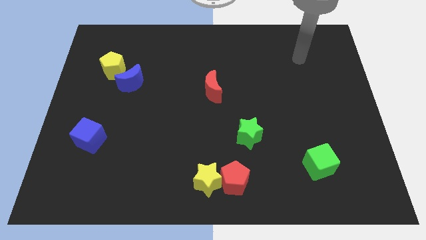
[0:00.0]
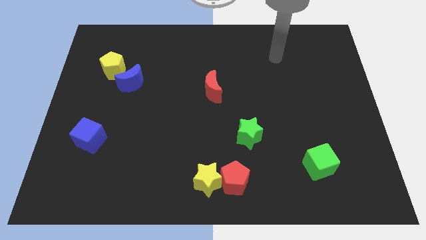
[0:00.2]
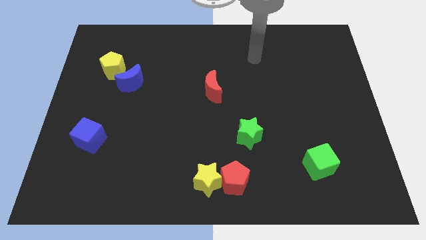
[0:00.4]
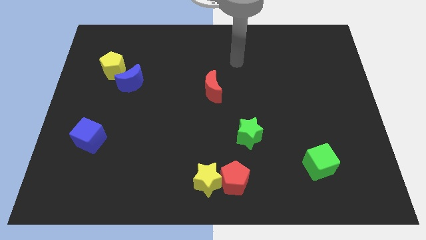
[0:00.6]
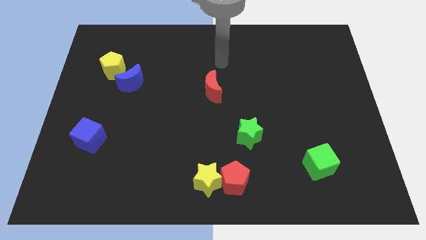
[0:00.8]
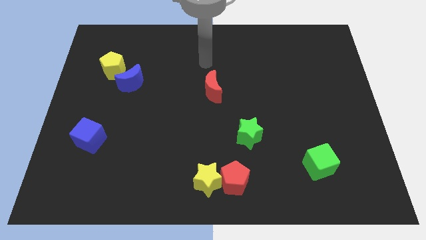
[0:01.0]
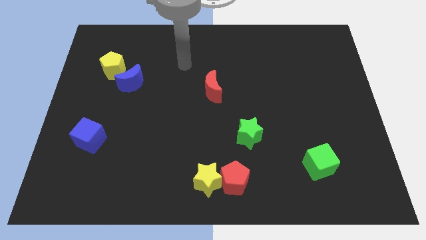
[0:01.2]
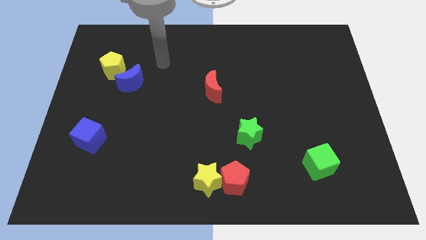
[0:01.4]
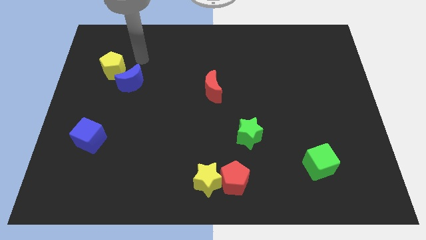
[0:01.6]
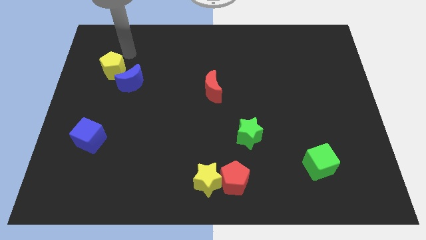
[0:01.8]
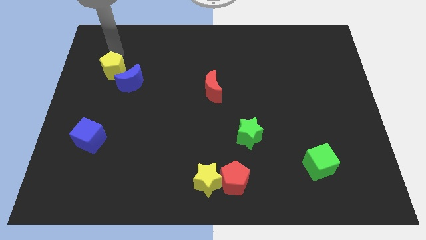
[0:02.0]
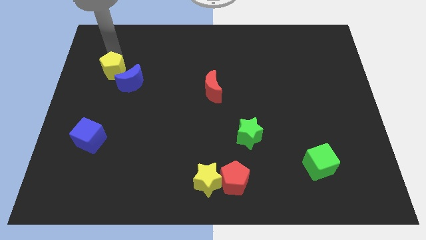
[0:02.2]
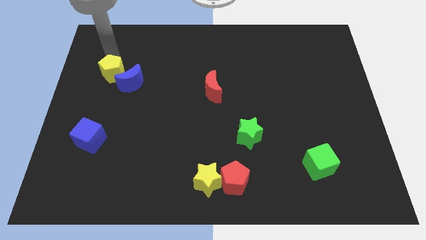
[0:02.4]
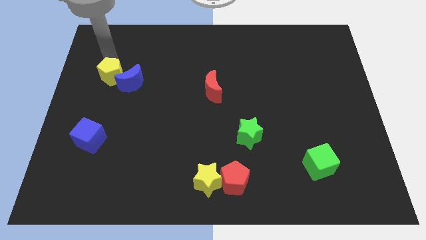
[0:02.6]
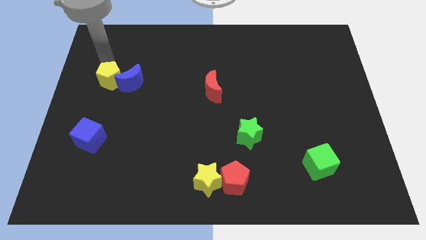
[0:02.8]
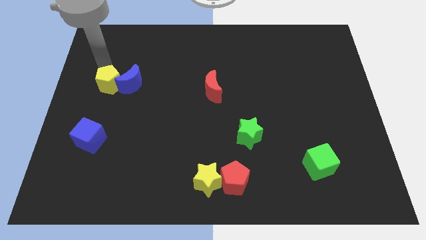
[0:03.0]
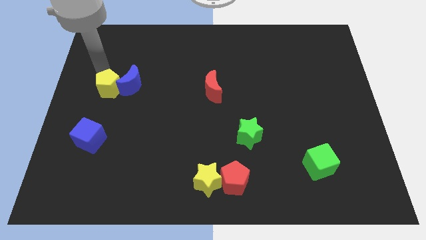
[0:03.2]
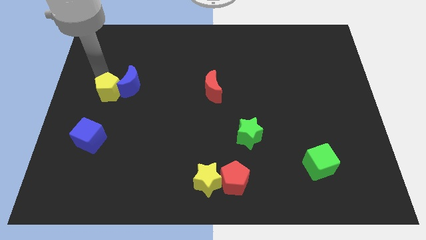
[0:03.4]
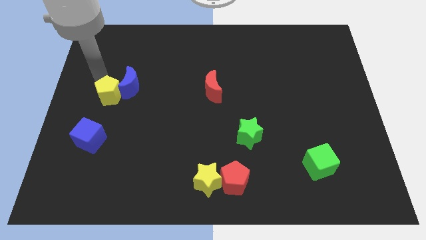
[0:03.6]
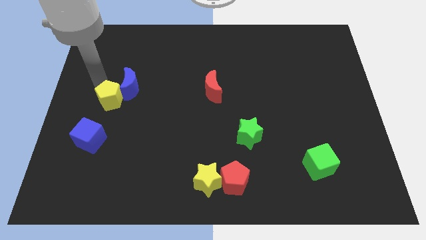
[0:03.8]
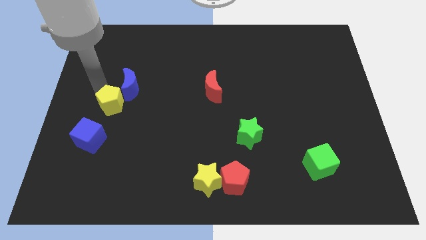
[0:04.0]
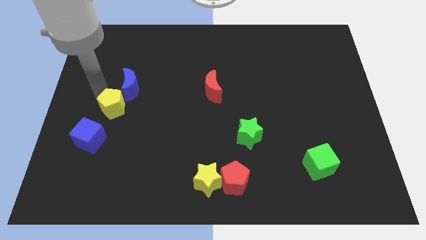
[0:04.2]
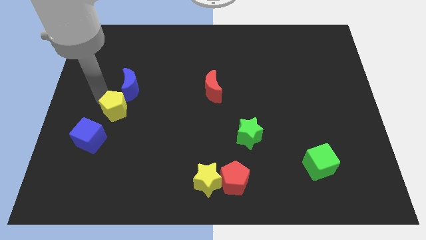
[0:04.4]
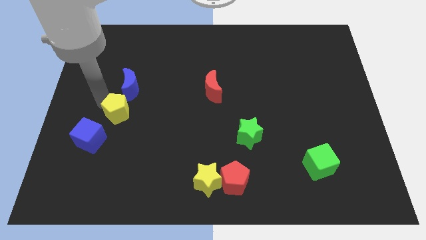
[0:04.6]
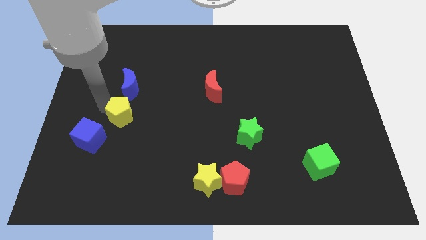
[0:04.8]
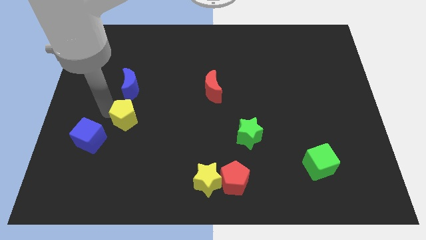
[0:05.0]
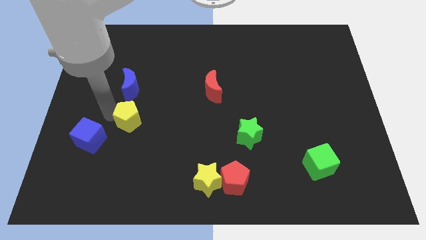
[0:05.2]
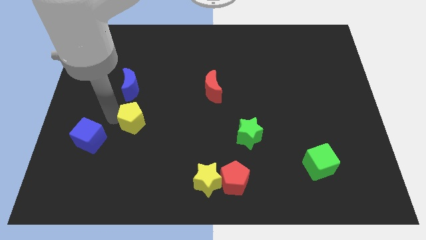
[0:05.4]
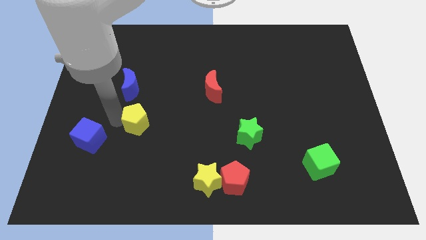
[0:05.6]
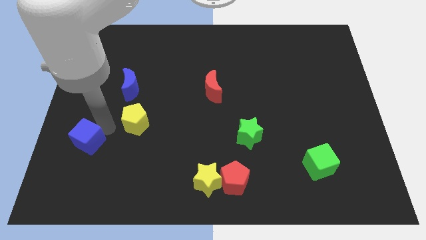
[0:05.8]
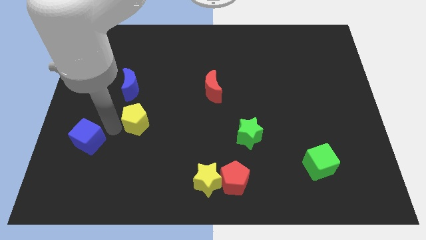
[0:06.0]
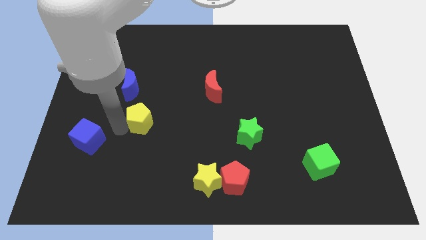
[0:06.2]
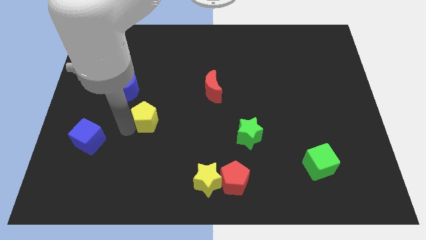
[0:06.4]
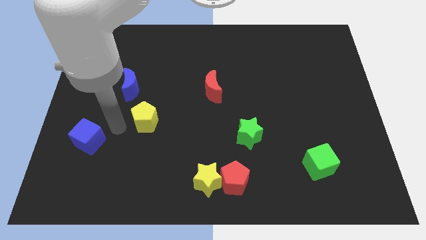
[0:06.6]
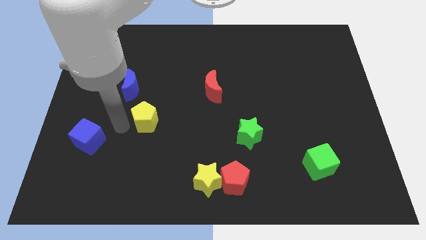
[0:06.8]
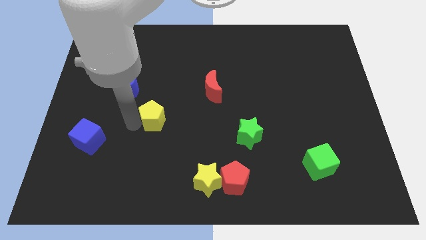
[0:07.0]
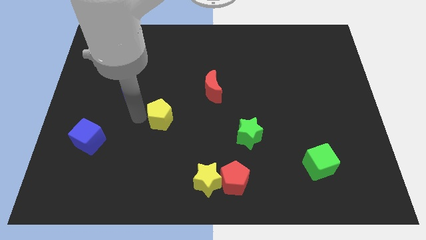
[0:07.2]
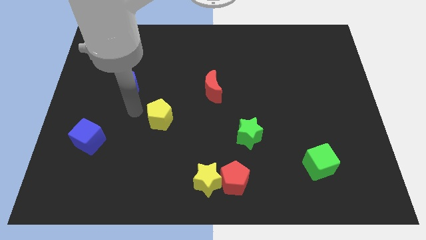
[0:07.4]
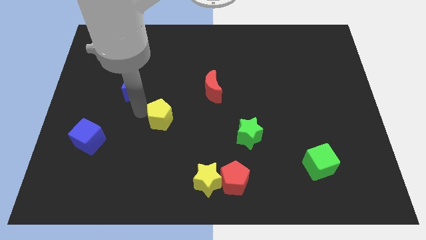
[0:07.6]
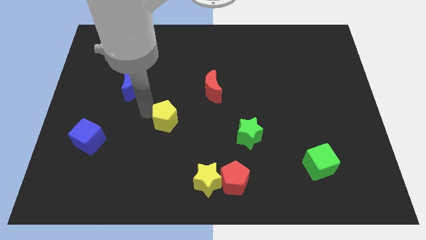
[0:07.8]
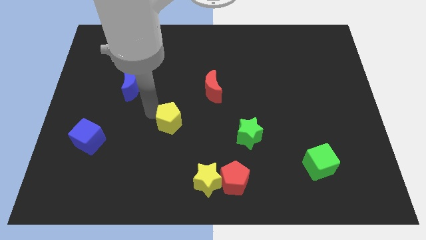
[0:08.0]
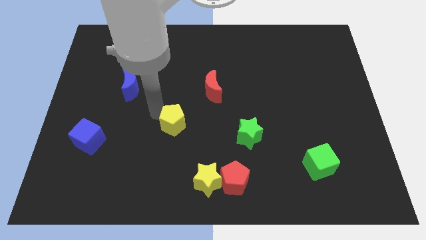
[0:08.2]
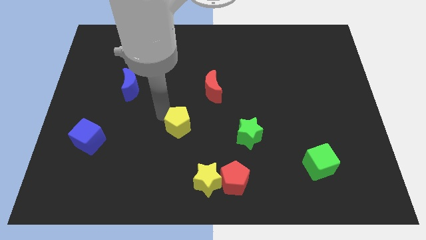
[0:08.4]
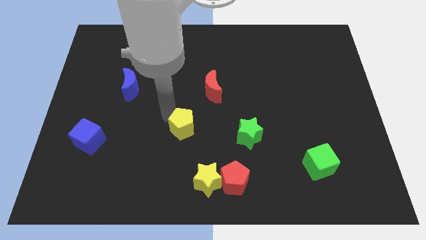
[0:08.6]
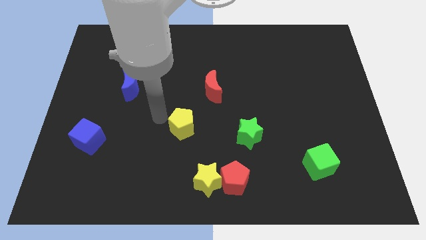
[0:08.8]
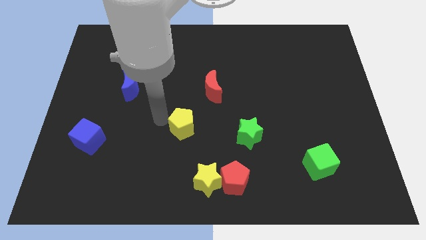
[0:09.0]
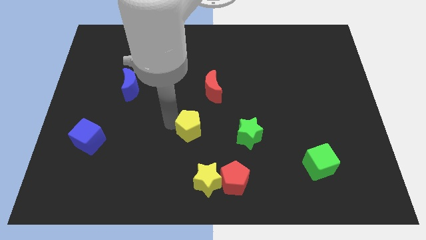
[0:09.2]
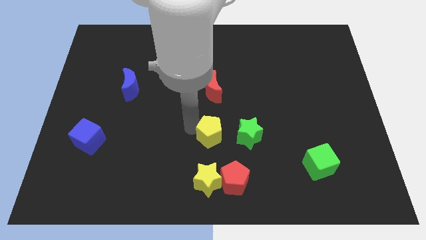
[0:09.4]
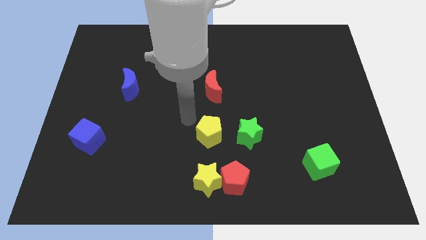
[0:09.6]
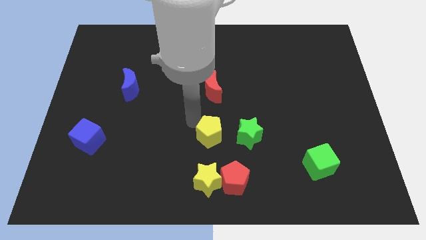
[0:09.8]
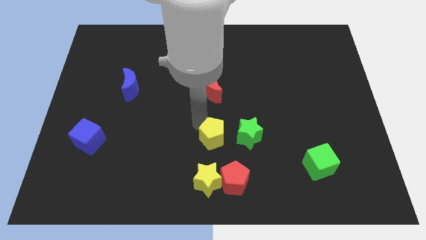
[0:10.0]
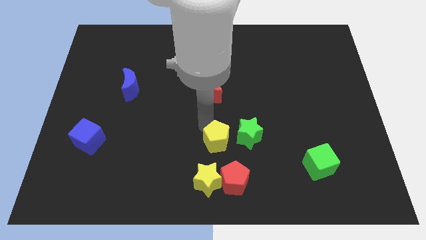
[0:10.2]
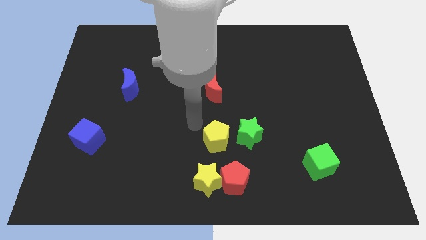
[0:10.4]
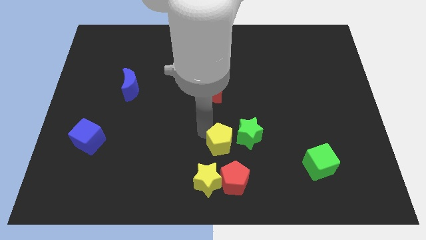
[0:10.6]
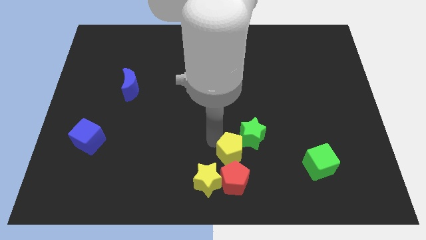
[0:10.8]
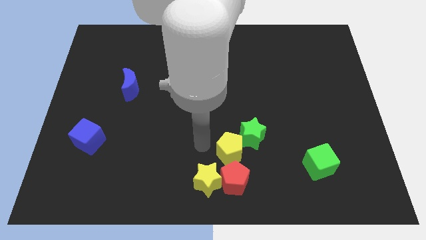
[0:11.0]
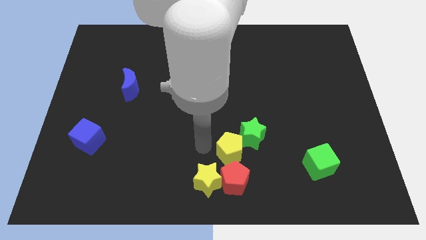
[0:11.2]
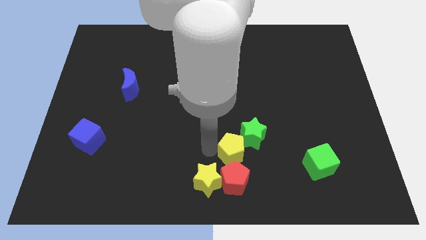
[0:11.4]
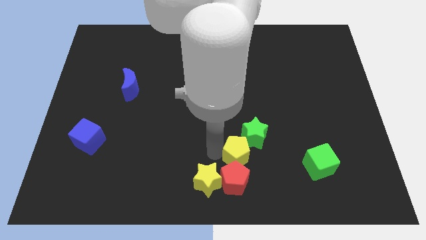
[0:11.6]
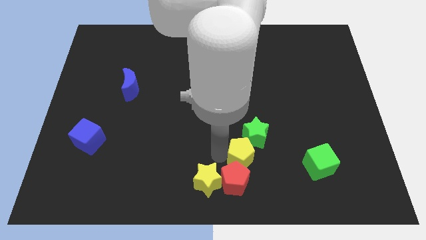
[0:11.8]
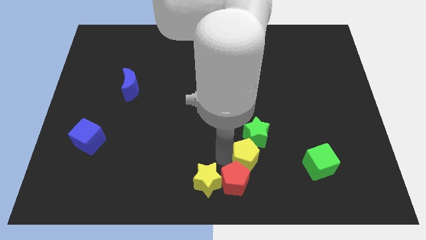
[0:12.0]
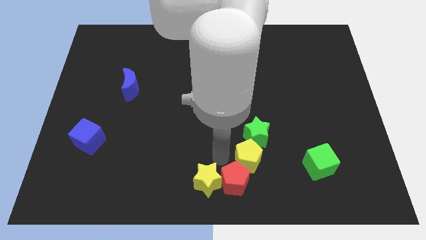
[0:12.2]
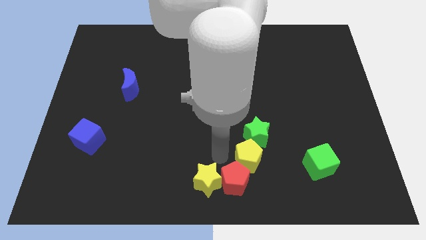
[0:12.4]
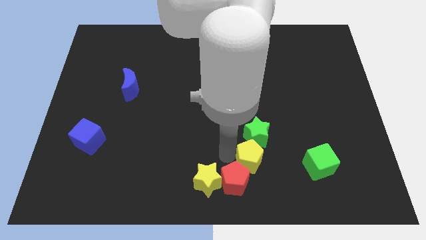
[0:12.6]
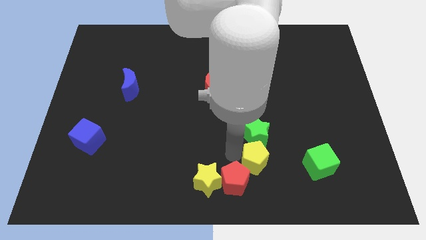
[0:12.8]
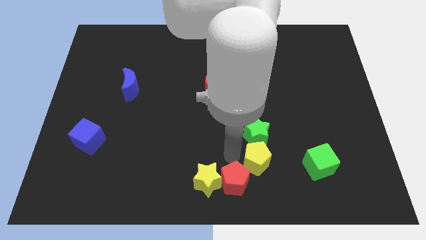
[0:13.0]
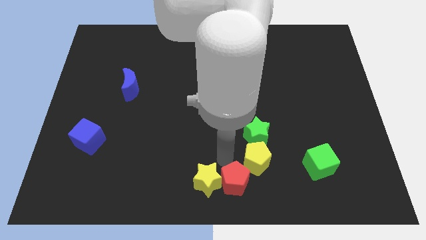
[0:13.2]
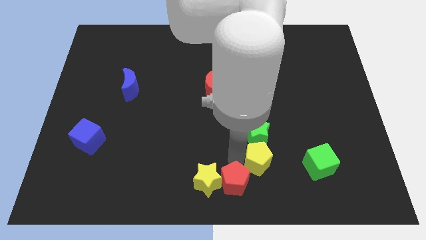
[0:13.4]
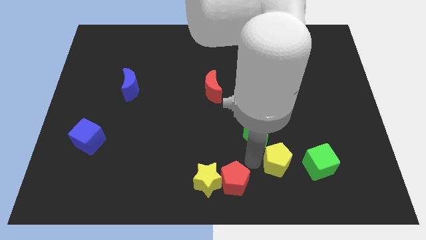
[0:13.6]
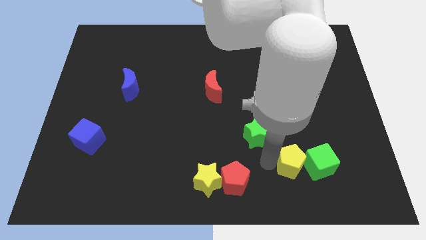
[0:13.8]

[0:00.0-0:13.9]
put the yellow pentagon next to the green cube
